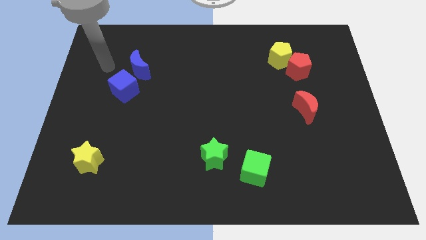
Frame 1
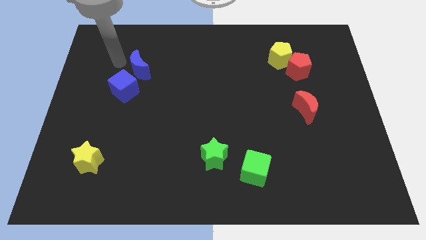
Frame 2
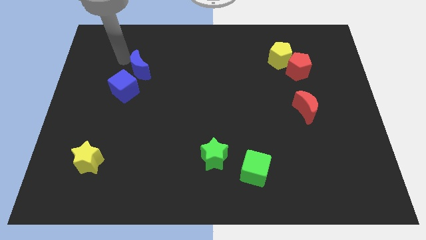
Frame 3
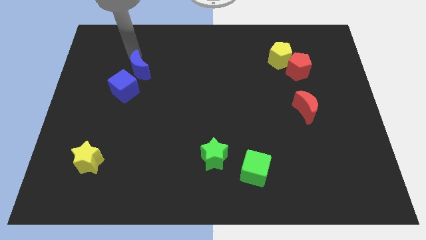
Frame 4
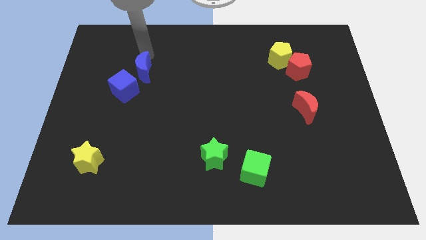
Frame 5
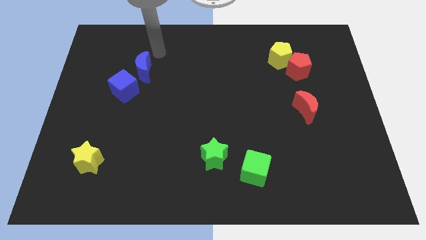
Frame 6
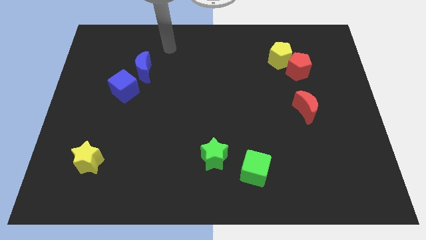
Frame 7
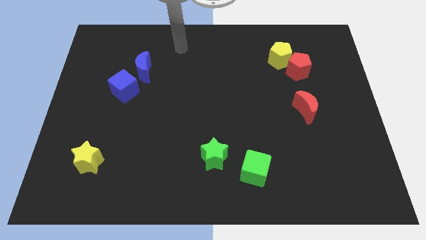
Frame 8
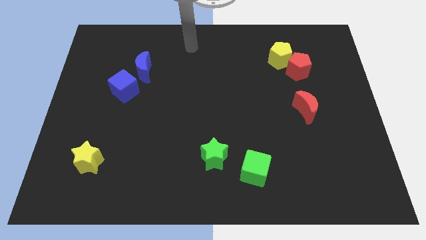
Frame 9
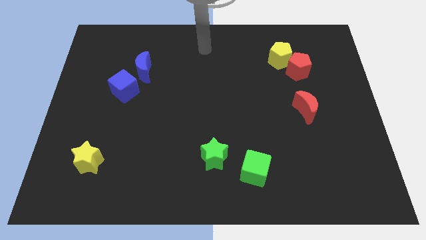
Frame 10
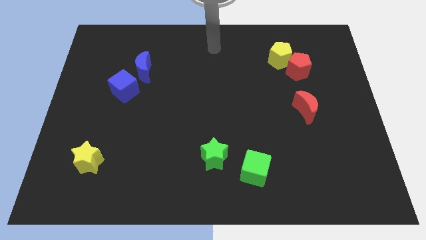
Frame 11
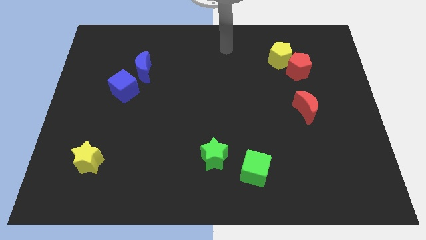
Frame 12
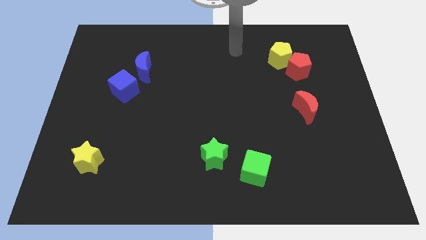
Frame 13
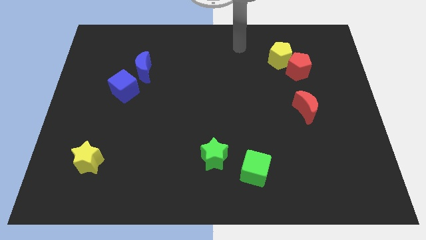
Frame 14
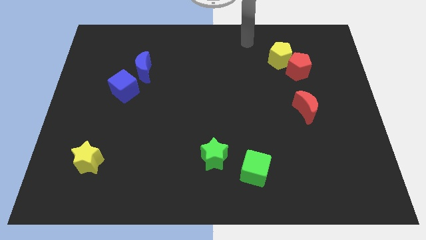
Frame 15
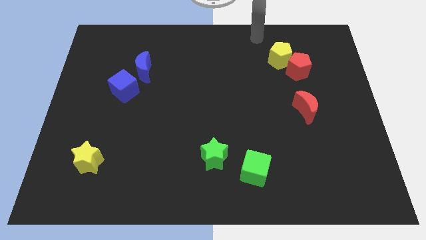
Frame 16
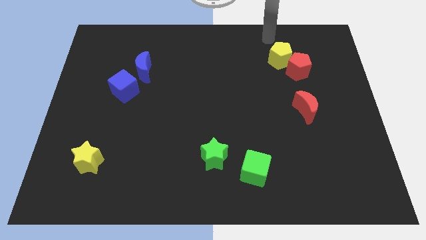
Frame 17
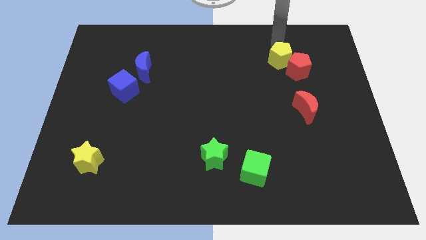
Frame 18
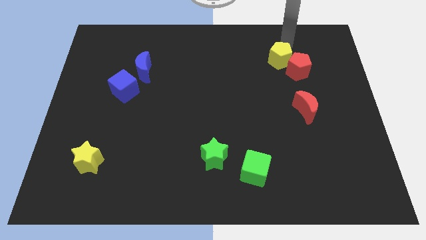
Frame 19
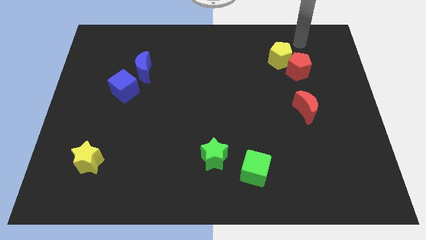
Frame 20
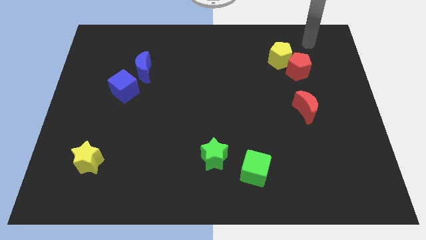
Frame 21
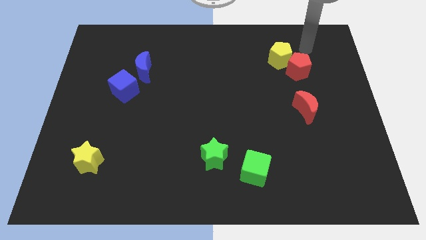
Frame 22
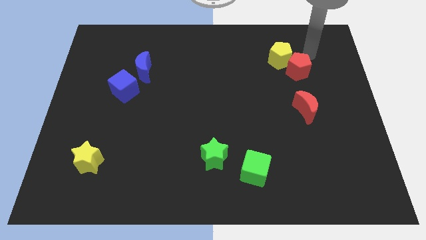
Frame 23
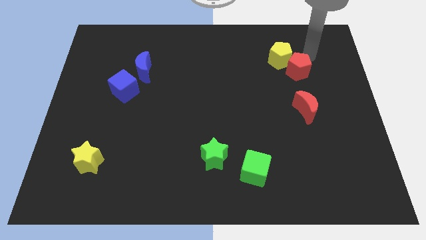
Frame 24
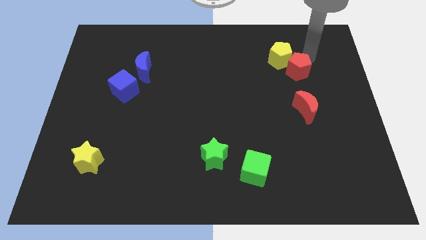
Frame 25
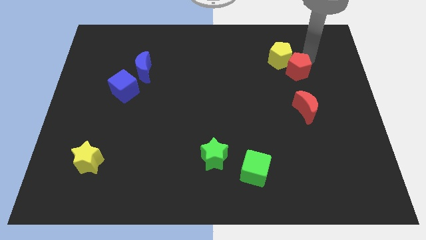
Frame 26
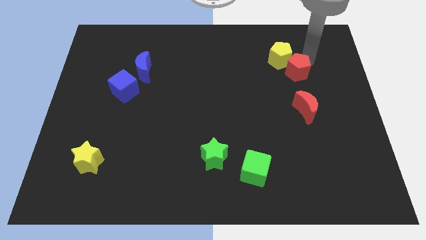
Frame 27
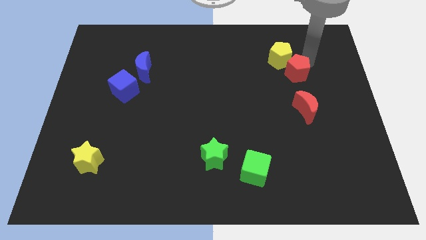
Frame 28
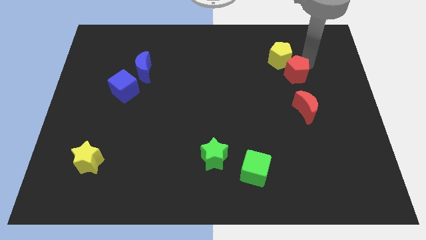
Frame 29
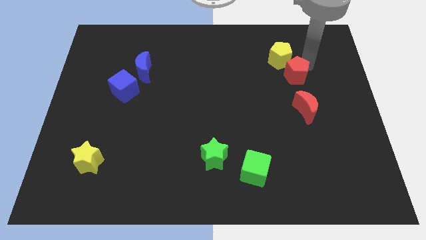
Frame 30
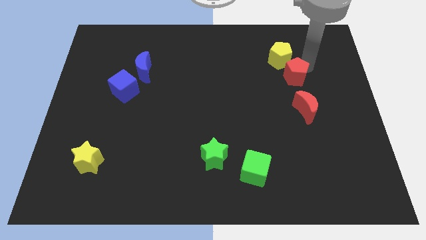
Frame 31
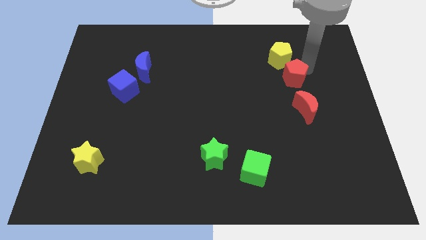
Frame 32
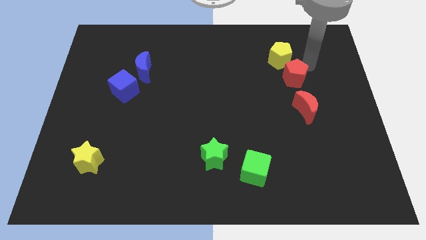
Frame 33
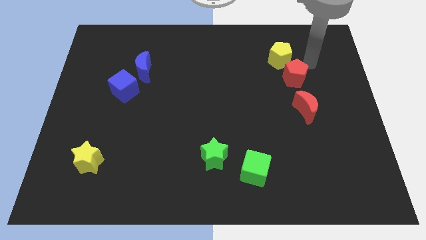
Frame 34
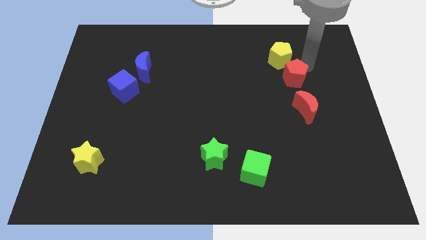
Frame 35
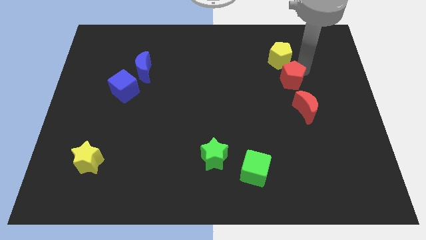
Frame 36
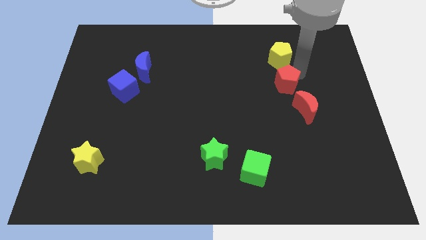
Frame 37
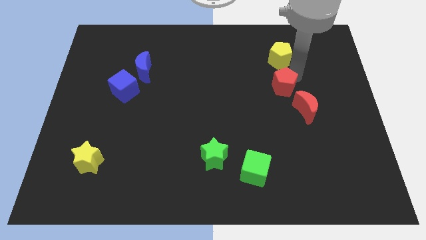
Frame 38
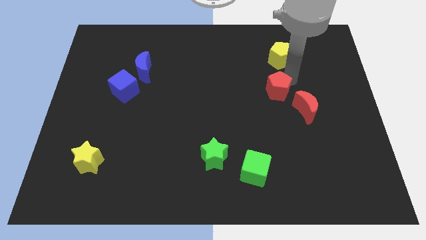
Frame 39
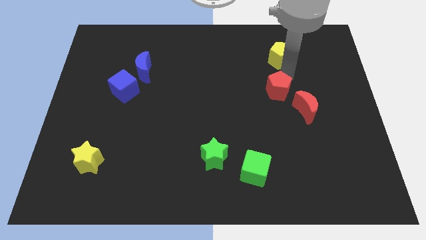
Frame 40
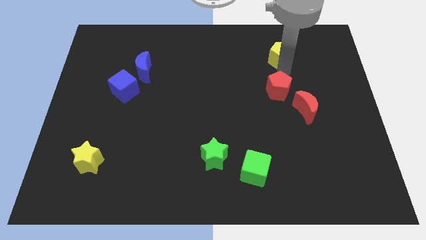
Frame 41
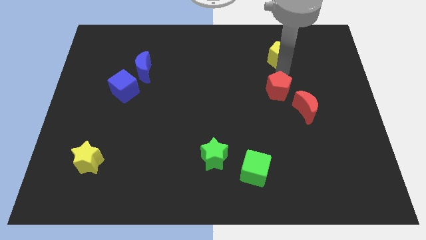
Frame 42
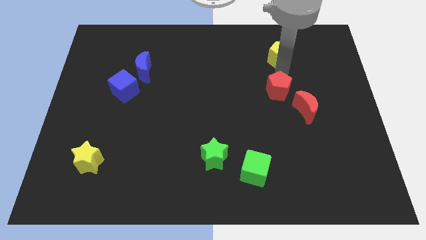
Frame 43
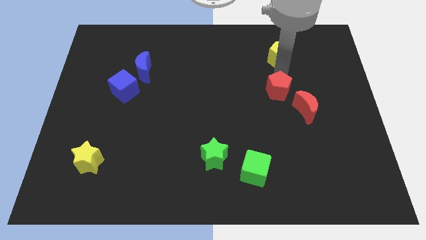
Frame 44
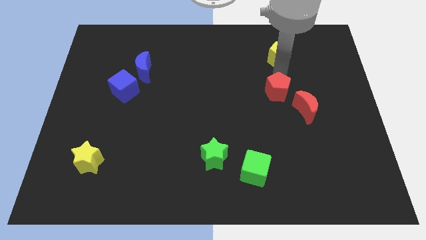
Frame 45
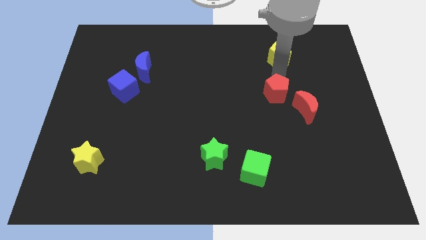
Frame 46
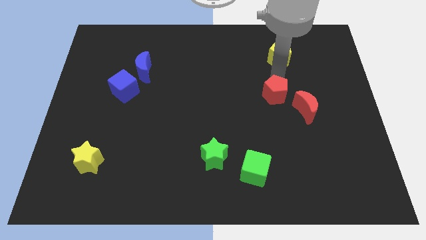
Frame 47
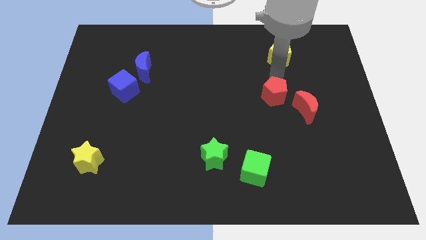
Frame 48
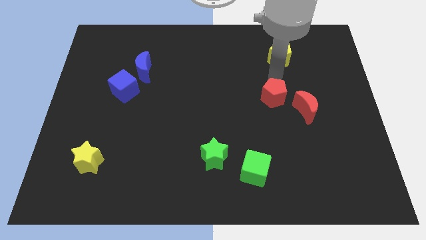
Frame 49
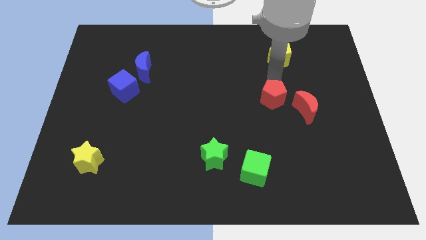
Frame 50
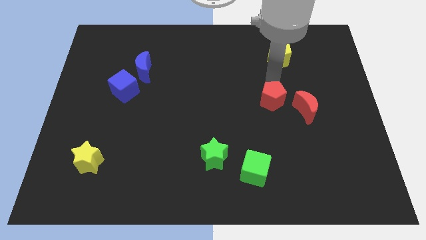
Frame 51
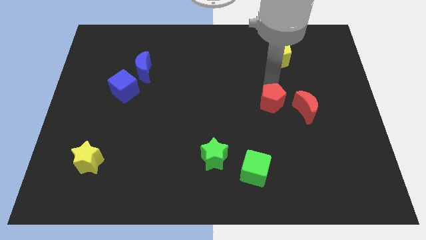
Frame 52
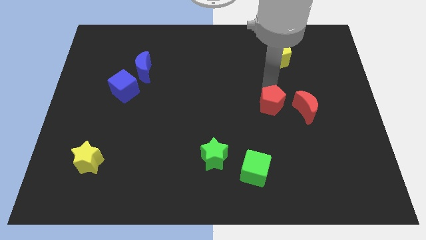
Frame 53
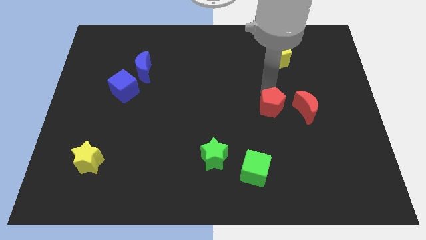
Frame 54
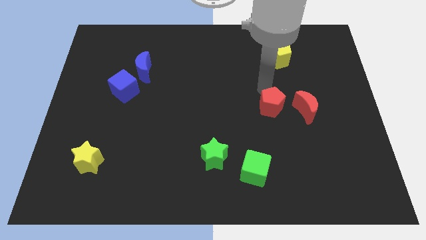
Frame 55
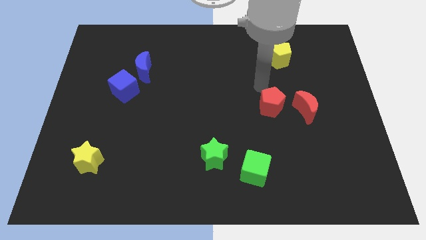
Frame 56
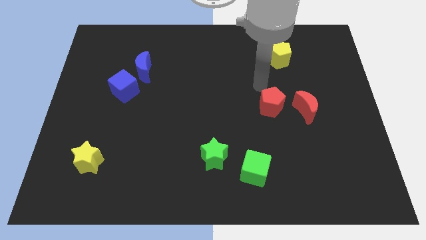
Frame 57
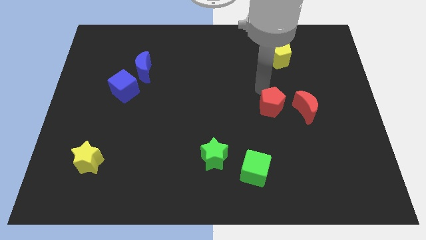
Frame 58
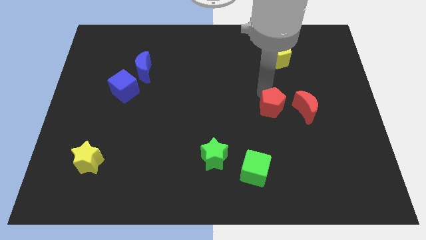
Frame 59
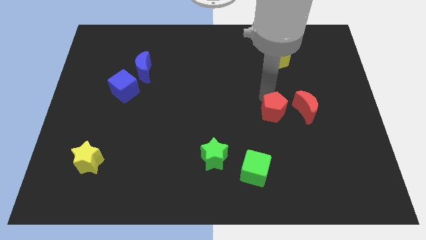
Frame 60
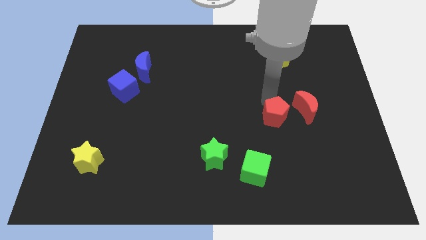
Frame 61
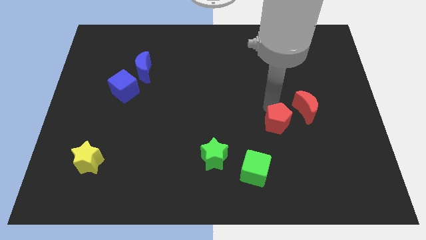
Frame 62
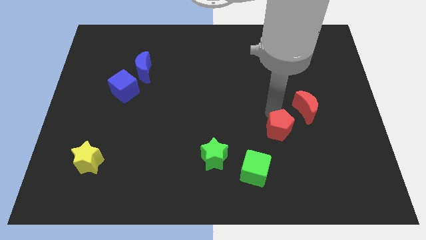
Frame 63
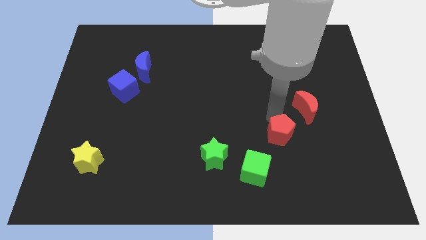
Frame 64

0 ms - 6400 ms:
put the red pentagon diagonally up and to the right of the green cube

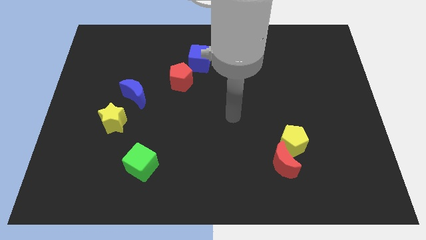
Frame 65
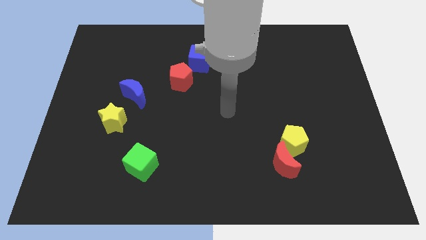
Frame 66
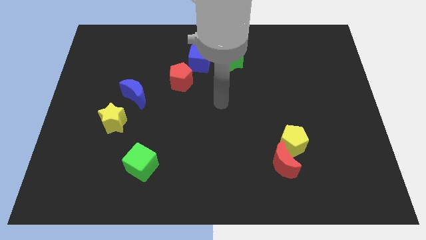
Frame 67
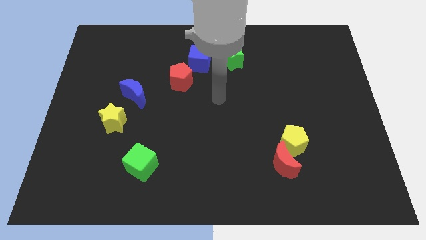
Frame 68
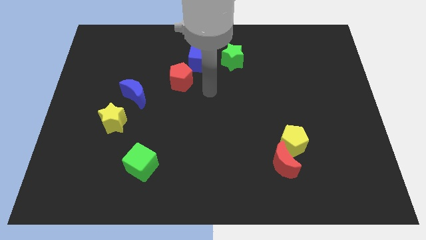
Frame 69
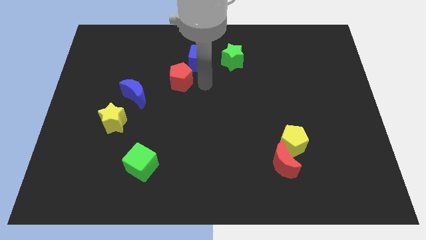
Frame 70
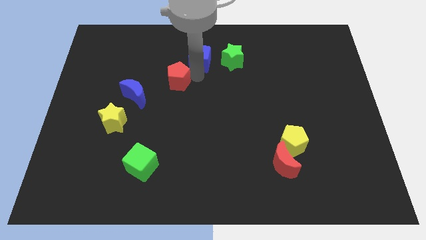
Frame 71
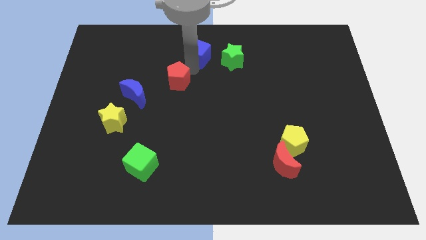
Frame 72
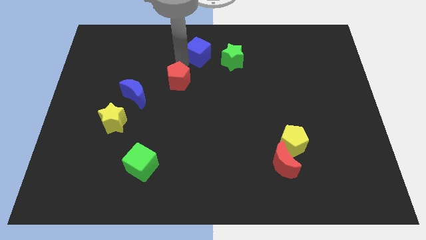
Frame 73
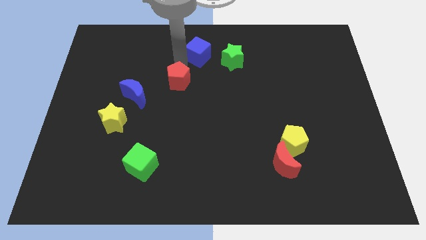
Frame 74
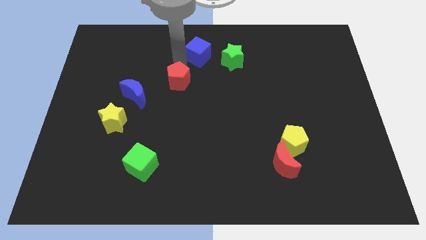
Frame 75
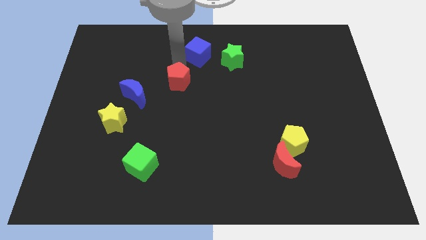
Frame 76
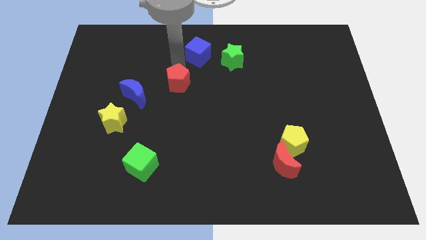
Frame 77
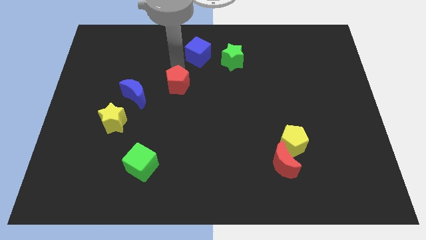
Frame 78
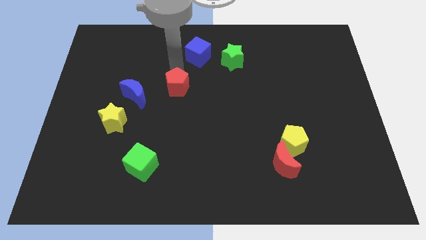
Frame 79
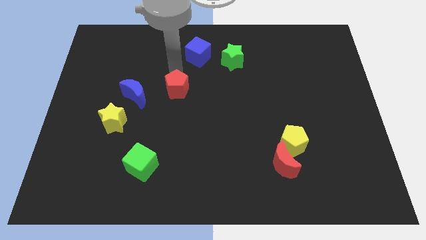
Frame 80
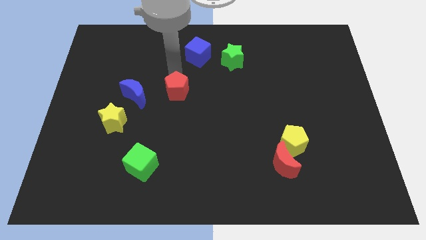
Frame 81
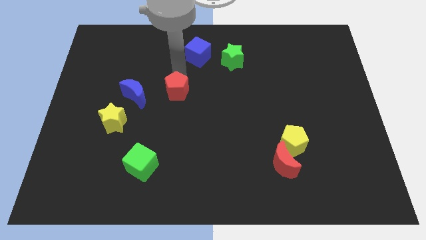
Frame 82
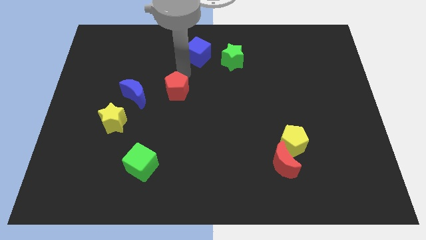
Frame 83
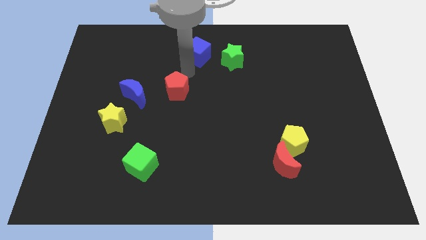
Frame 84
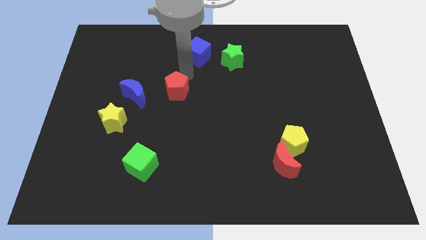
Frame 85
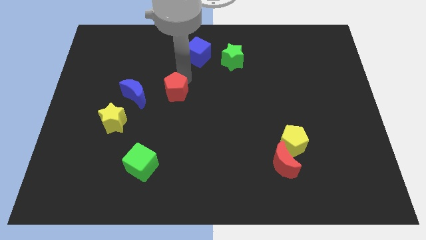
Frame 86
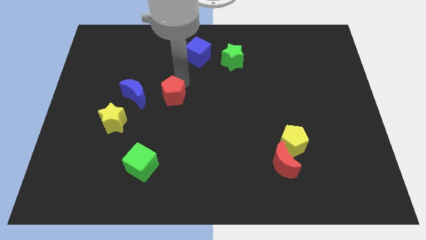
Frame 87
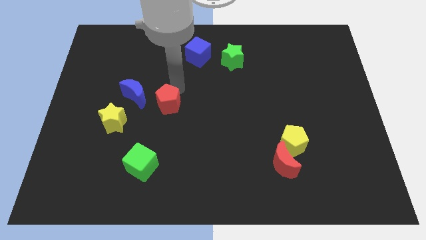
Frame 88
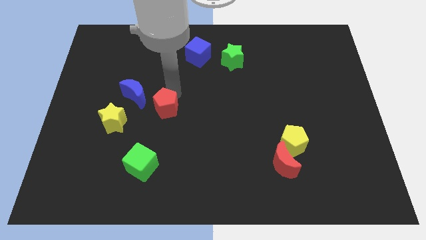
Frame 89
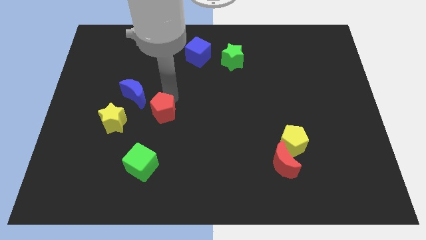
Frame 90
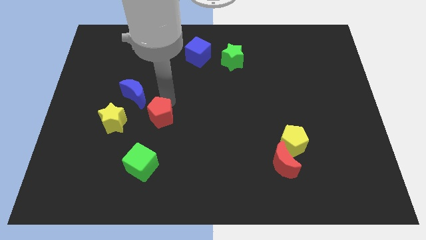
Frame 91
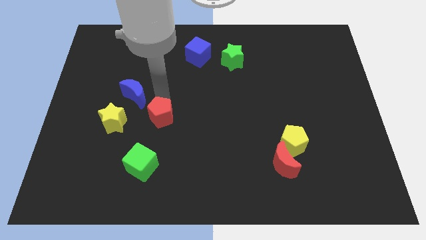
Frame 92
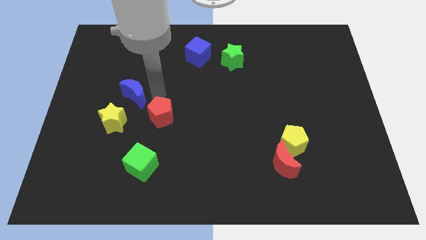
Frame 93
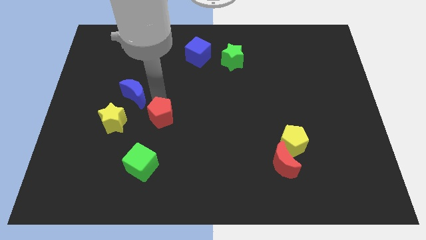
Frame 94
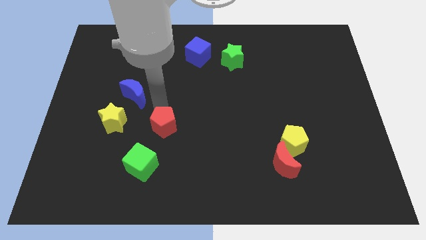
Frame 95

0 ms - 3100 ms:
move the red pentagon to the top right of the green cube
